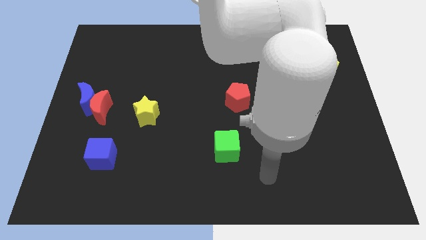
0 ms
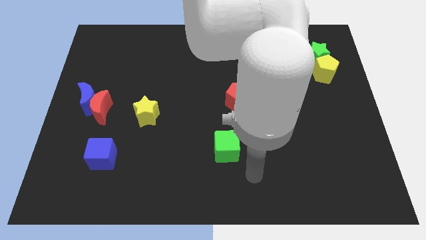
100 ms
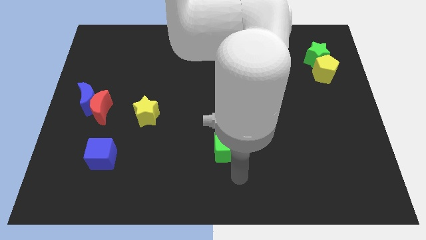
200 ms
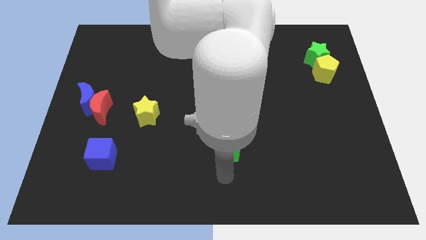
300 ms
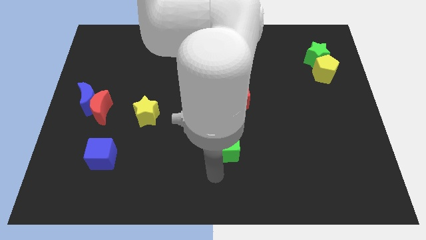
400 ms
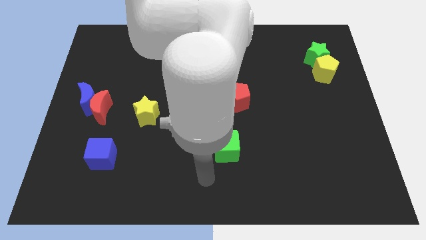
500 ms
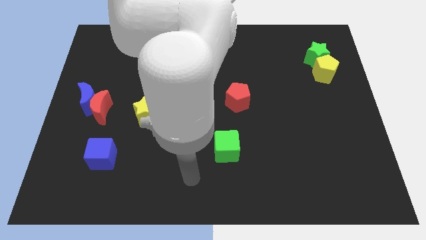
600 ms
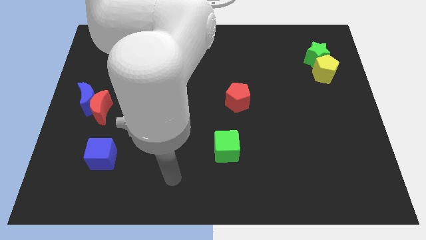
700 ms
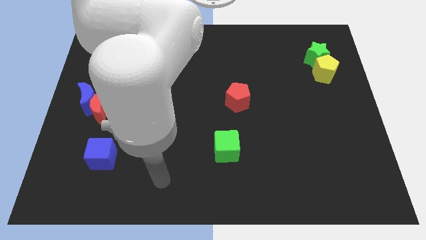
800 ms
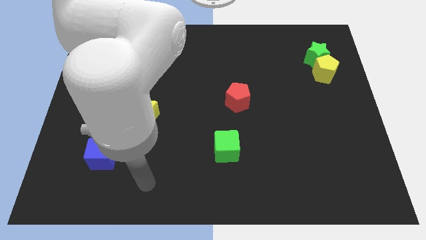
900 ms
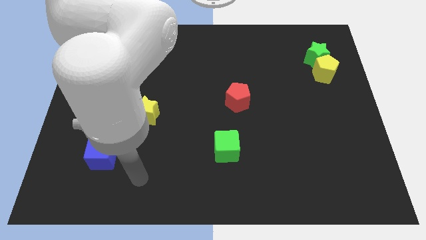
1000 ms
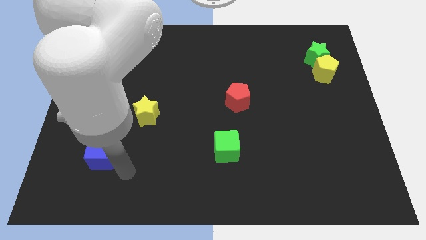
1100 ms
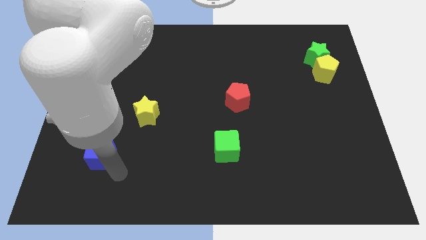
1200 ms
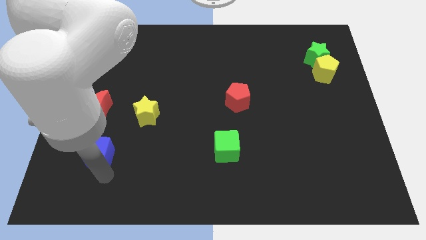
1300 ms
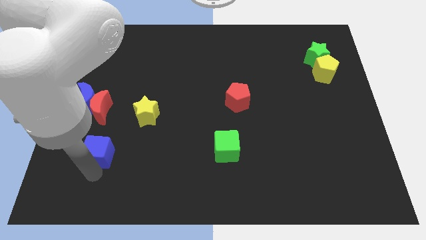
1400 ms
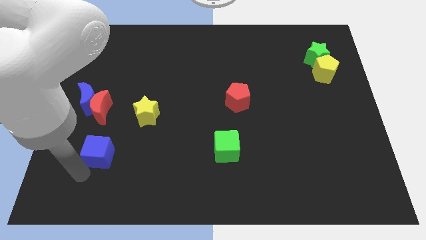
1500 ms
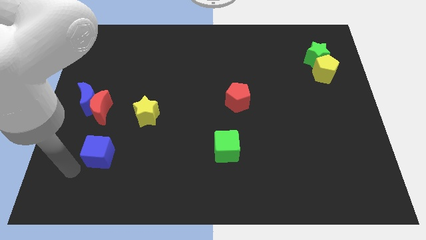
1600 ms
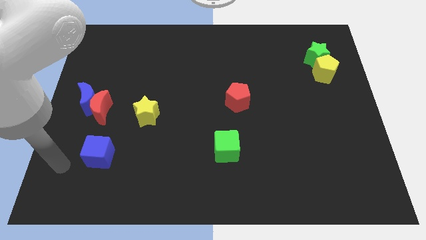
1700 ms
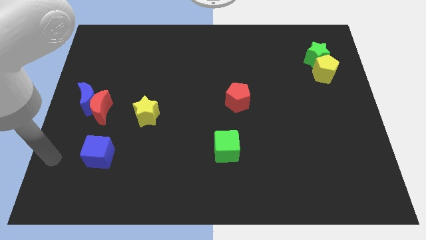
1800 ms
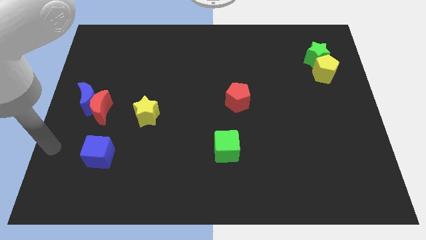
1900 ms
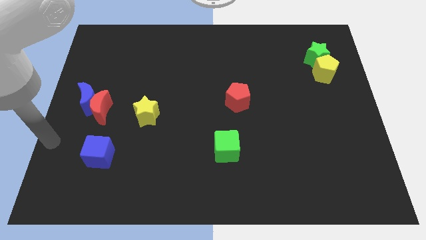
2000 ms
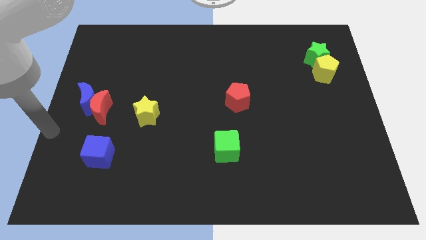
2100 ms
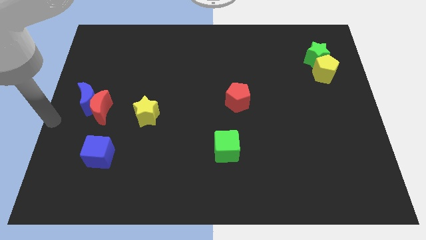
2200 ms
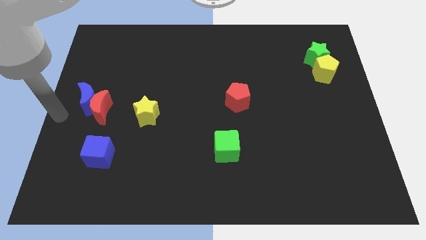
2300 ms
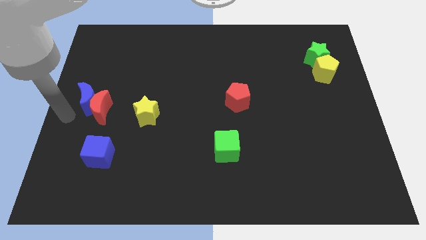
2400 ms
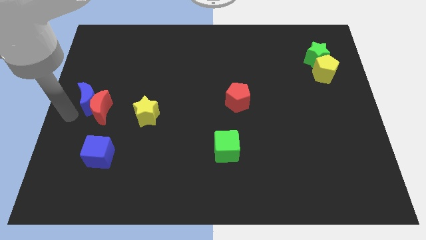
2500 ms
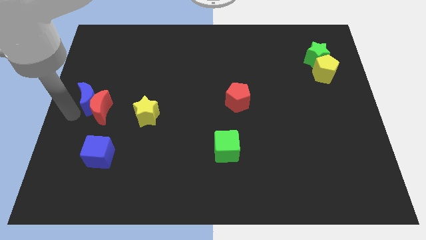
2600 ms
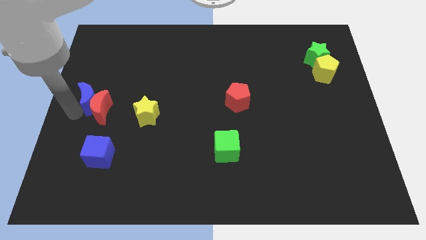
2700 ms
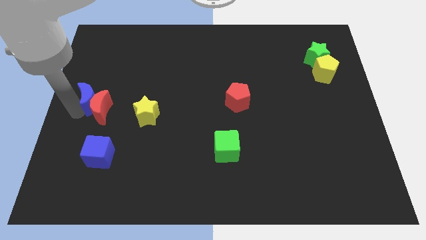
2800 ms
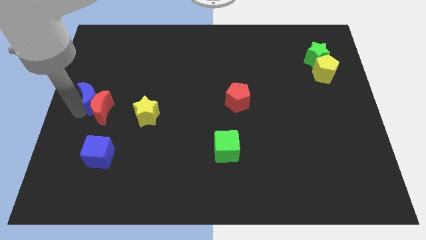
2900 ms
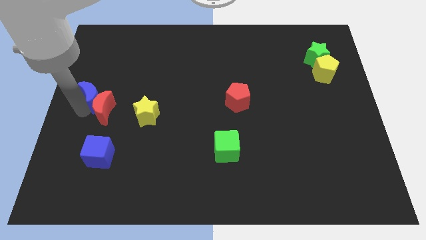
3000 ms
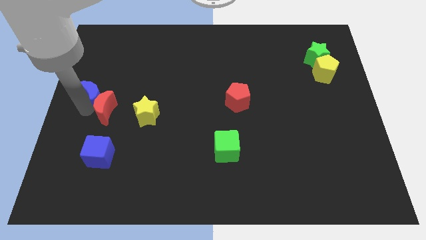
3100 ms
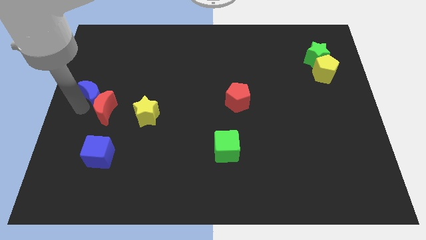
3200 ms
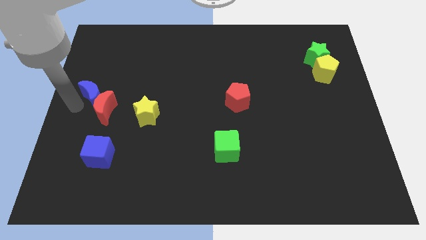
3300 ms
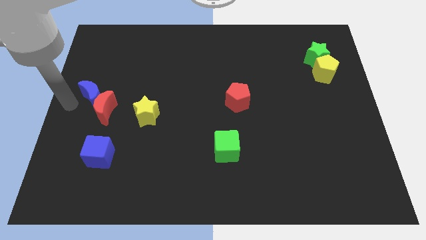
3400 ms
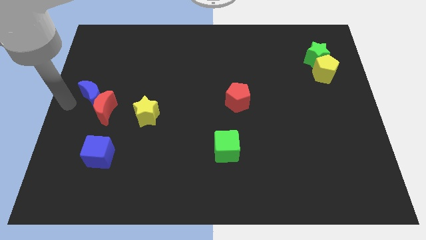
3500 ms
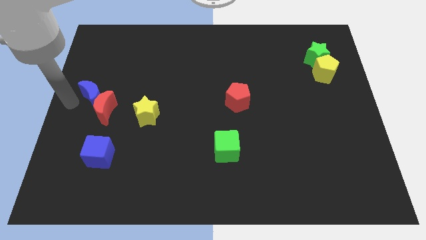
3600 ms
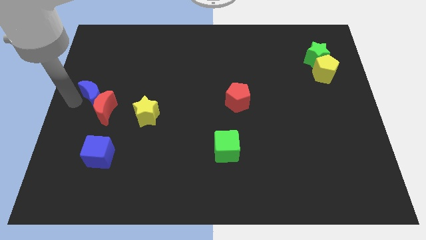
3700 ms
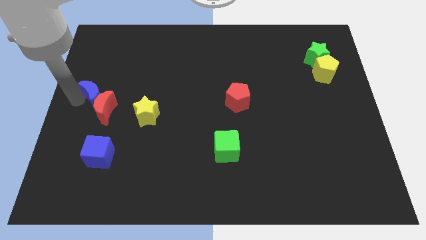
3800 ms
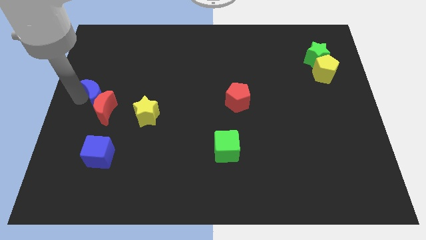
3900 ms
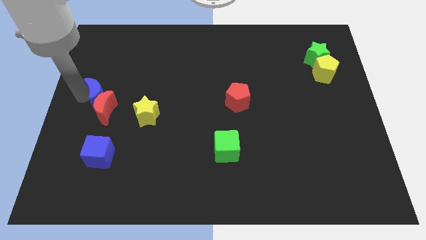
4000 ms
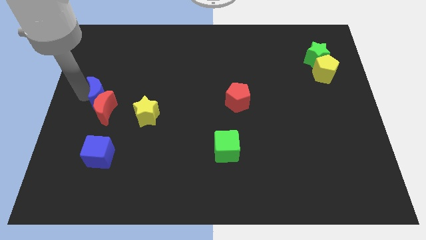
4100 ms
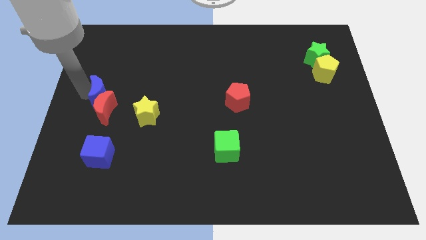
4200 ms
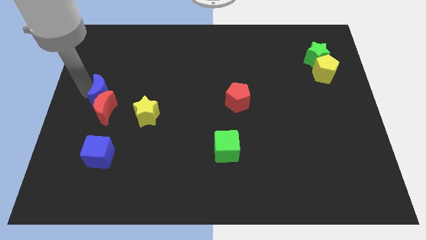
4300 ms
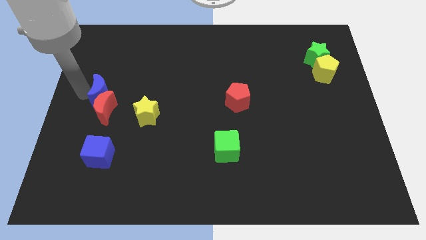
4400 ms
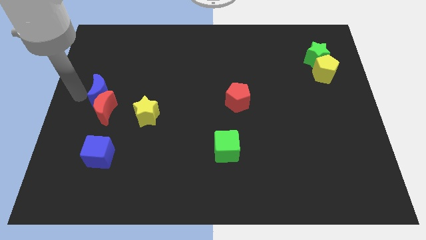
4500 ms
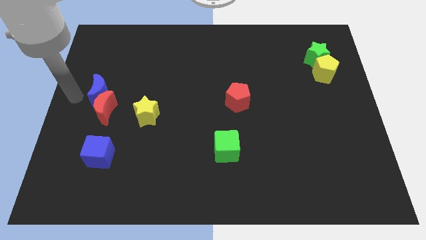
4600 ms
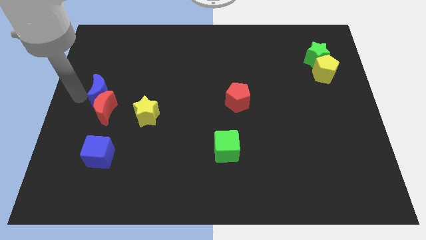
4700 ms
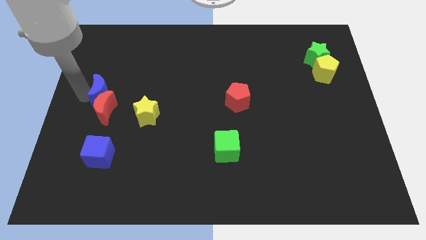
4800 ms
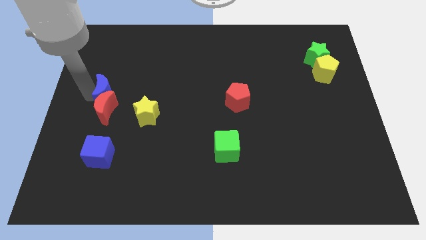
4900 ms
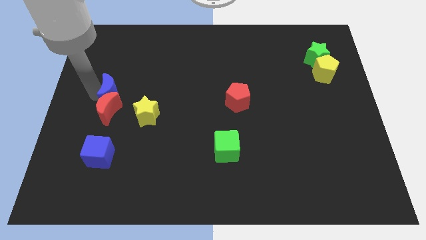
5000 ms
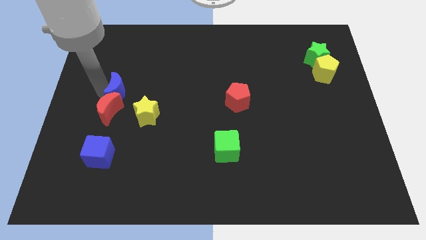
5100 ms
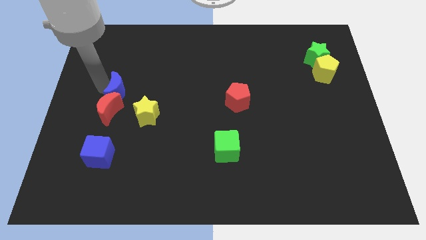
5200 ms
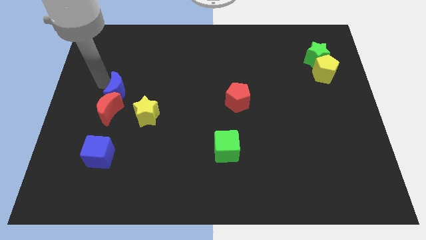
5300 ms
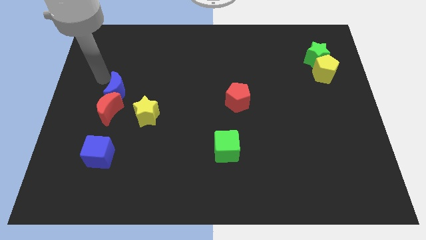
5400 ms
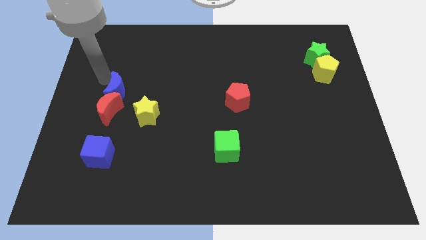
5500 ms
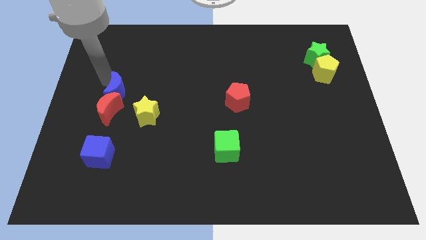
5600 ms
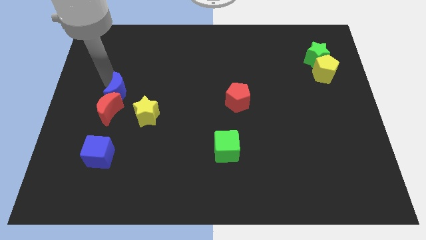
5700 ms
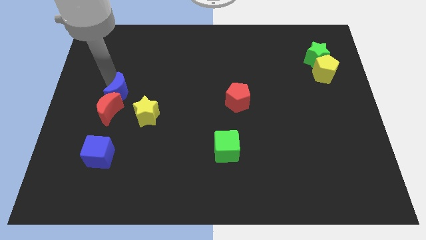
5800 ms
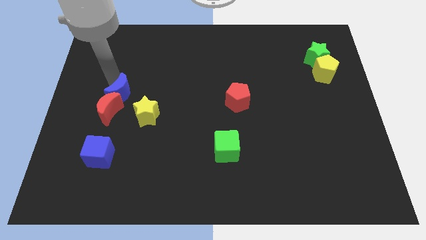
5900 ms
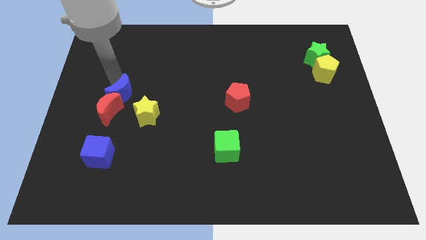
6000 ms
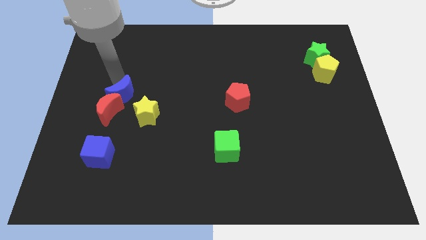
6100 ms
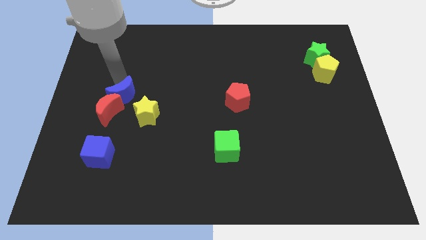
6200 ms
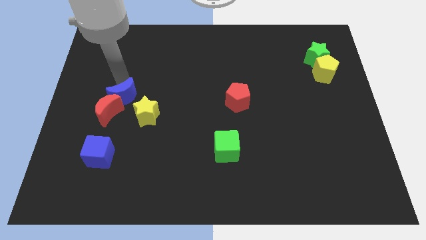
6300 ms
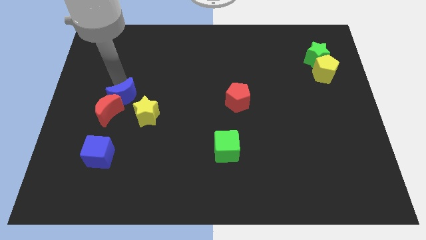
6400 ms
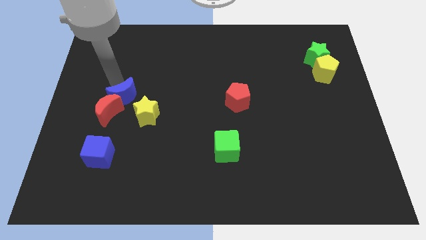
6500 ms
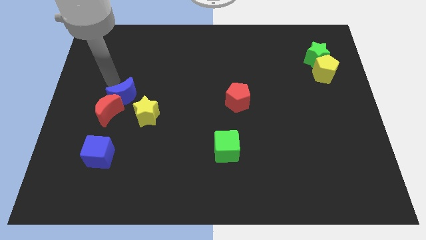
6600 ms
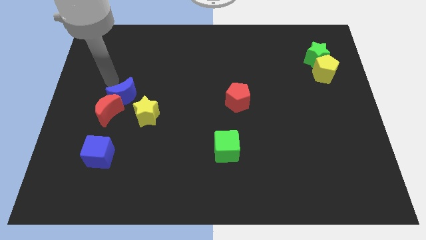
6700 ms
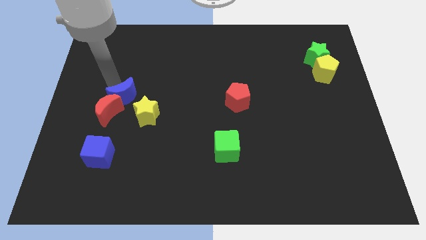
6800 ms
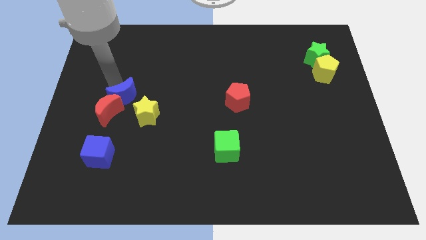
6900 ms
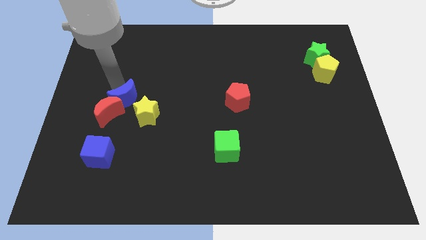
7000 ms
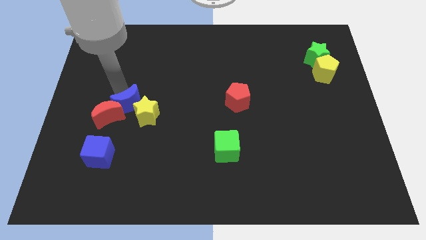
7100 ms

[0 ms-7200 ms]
slide the blue moon close to the yellow star
